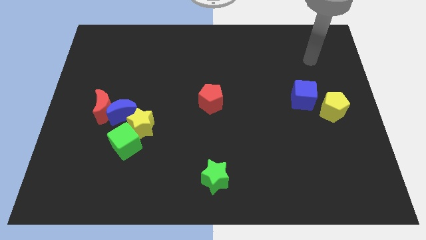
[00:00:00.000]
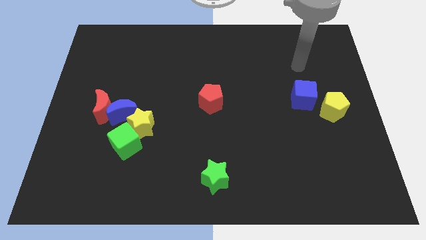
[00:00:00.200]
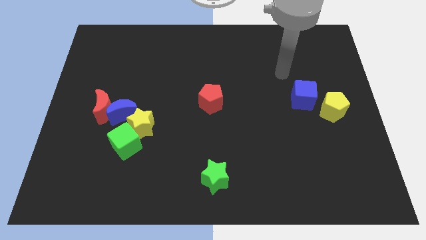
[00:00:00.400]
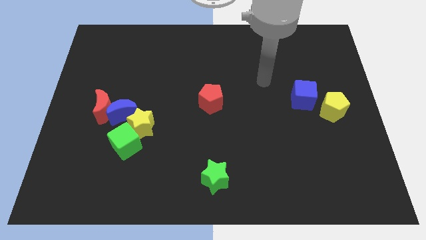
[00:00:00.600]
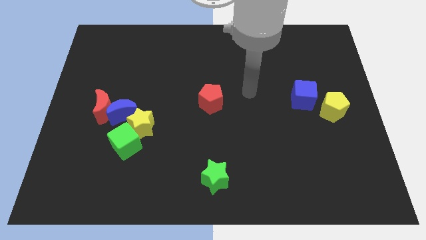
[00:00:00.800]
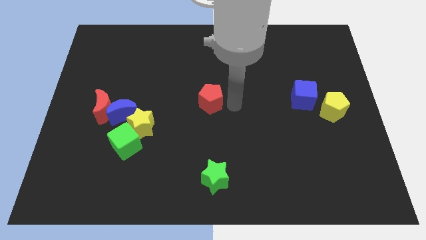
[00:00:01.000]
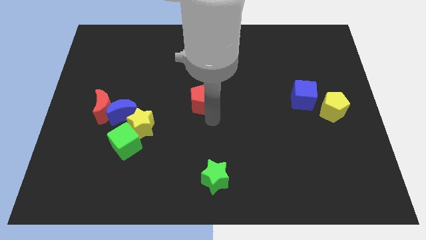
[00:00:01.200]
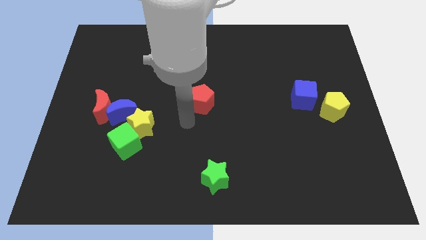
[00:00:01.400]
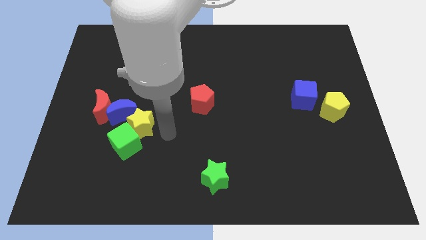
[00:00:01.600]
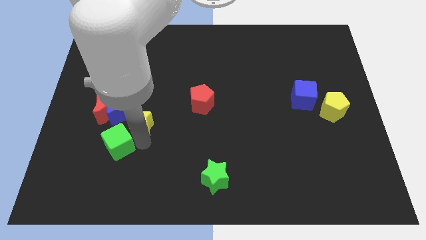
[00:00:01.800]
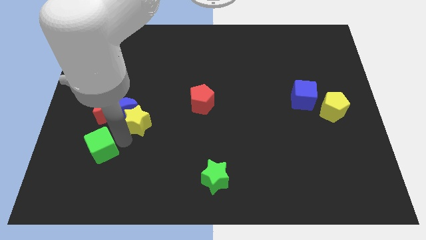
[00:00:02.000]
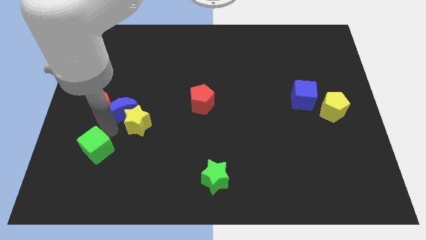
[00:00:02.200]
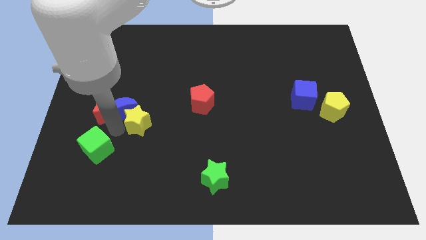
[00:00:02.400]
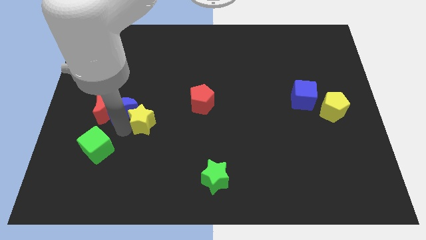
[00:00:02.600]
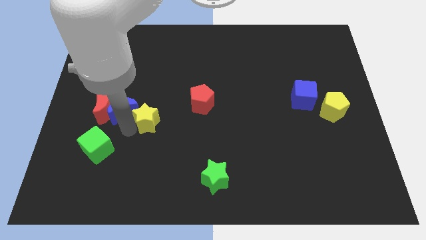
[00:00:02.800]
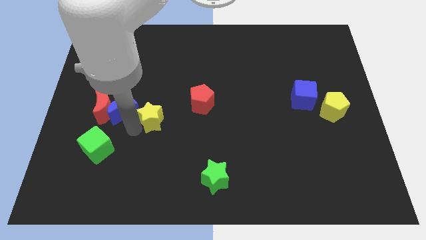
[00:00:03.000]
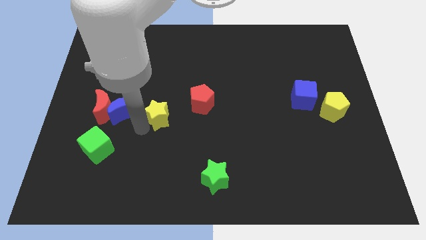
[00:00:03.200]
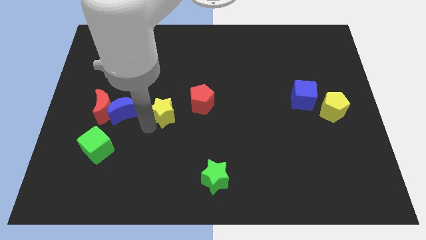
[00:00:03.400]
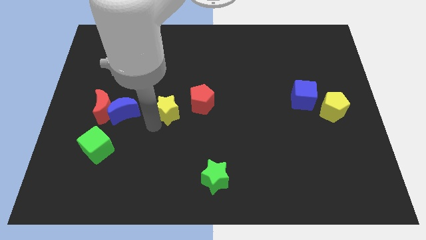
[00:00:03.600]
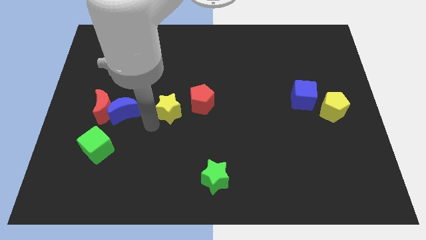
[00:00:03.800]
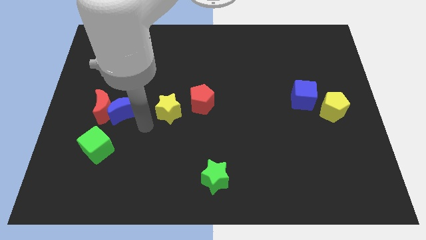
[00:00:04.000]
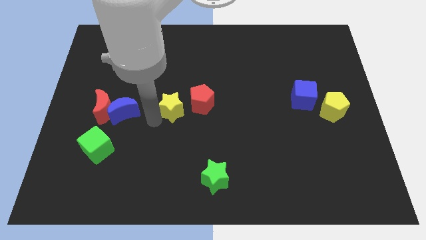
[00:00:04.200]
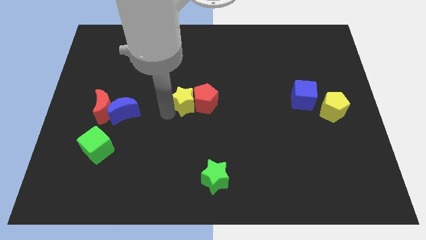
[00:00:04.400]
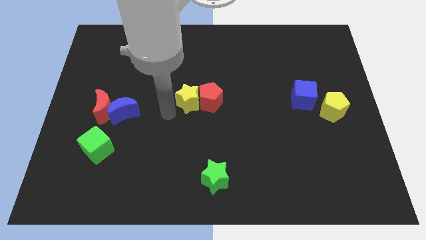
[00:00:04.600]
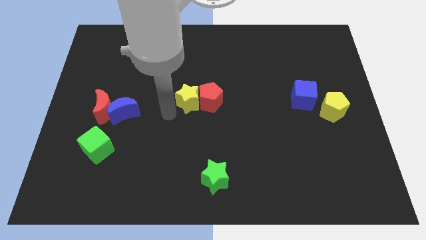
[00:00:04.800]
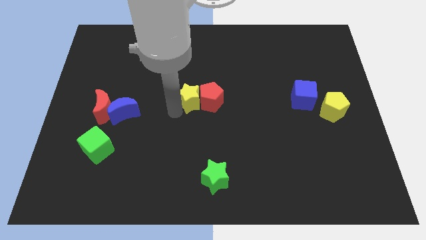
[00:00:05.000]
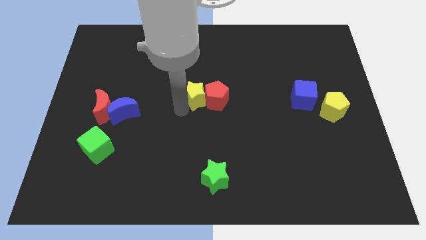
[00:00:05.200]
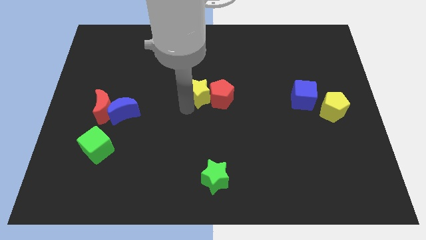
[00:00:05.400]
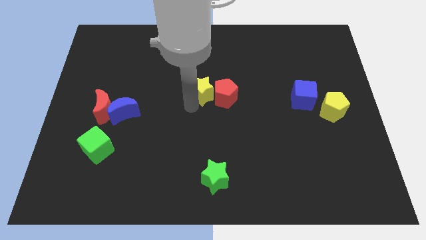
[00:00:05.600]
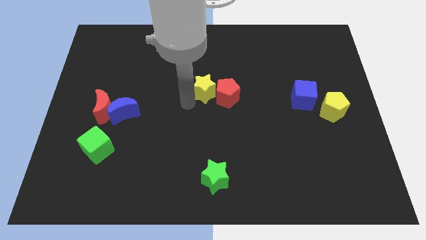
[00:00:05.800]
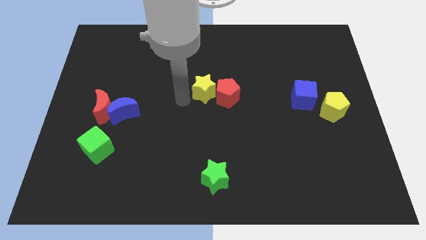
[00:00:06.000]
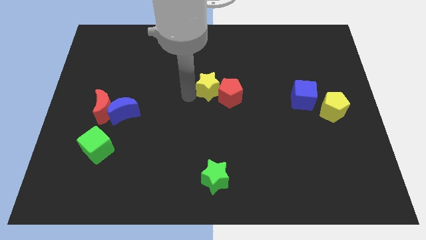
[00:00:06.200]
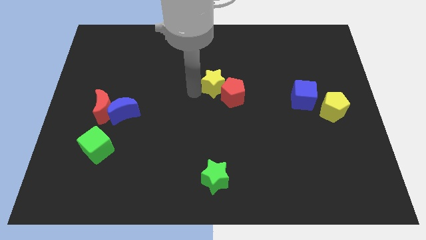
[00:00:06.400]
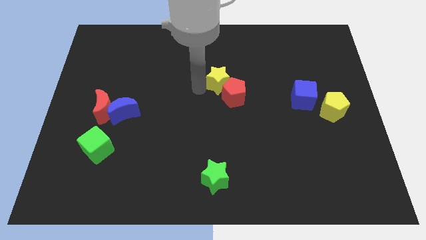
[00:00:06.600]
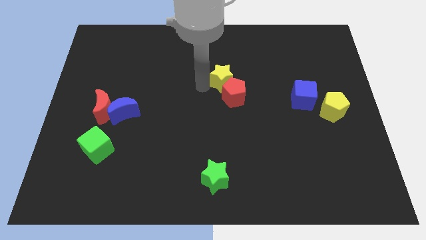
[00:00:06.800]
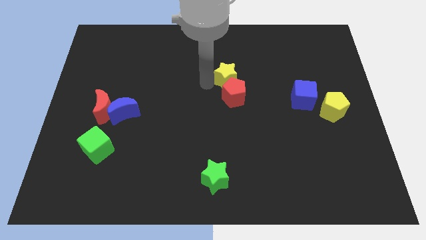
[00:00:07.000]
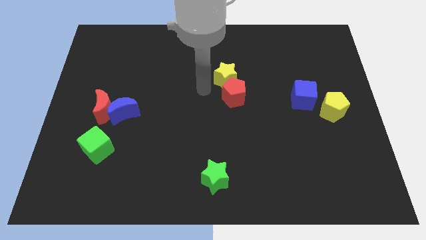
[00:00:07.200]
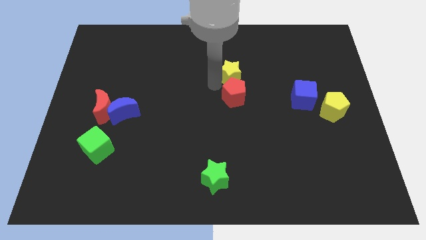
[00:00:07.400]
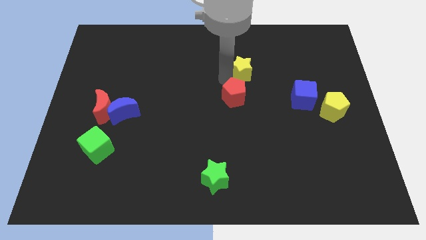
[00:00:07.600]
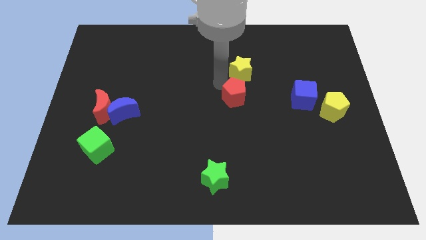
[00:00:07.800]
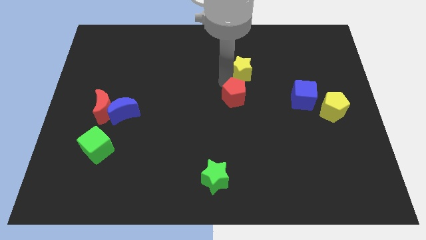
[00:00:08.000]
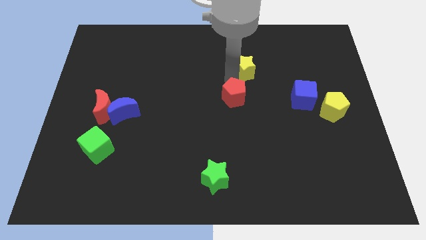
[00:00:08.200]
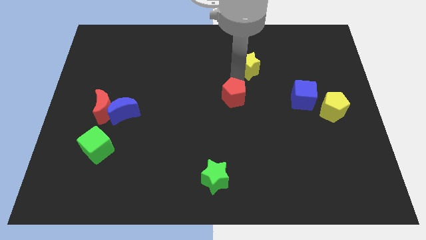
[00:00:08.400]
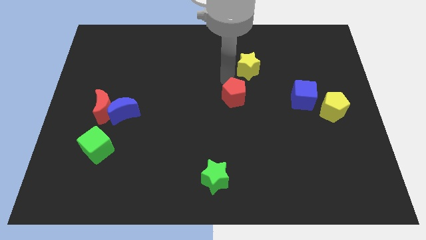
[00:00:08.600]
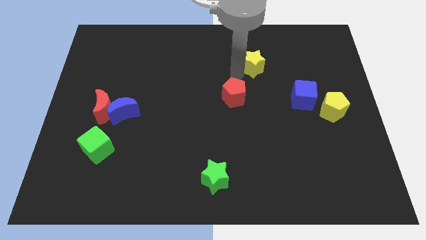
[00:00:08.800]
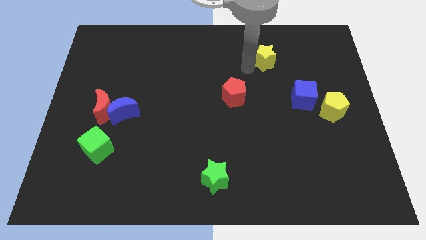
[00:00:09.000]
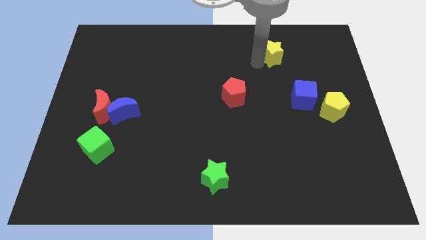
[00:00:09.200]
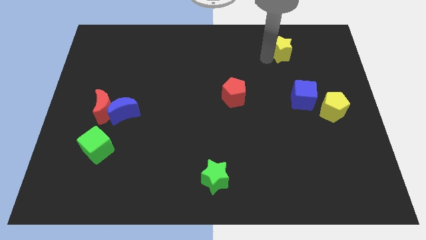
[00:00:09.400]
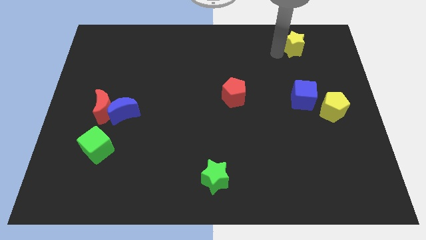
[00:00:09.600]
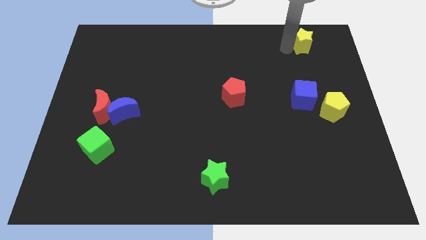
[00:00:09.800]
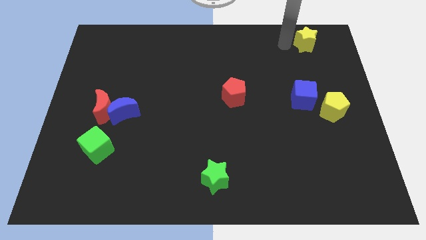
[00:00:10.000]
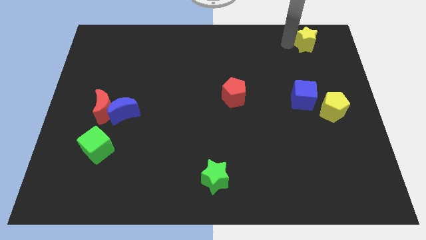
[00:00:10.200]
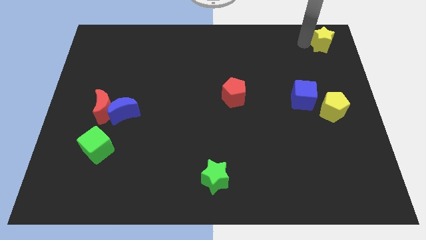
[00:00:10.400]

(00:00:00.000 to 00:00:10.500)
move the yellow star to the top right of the board

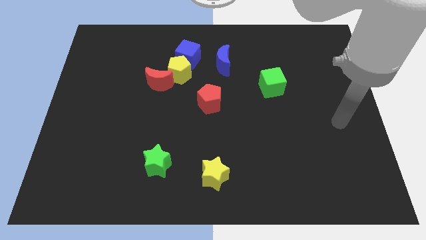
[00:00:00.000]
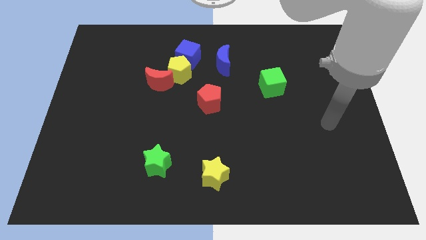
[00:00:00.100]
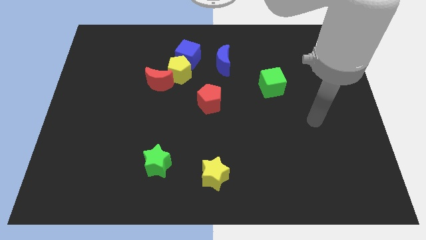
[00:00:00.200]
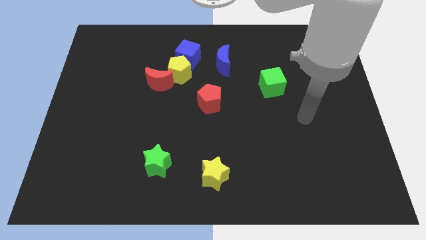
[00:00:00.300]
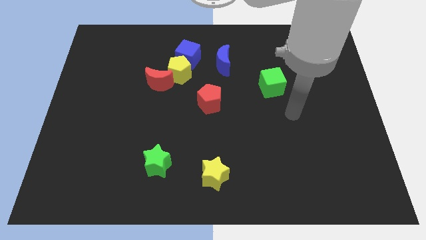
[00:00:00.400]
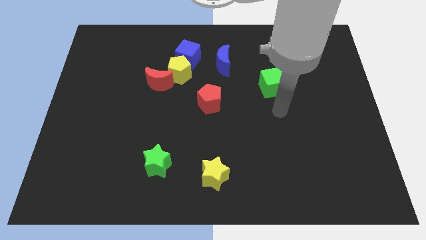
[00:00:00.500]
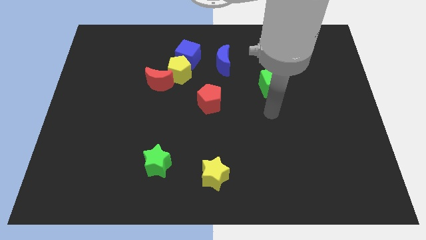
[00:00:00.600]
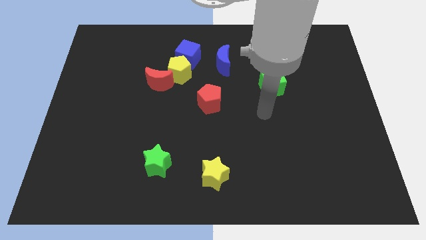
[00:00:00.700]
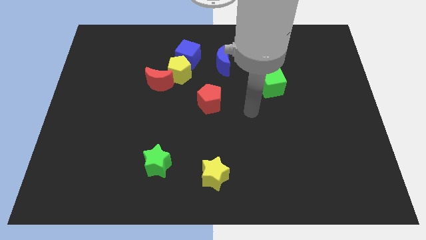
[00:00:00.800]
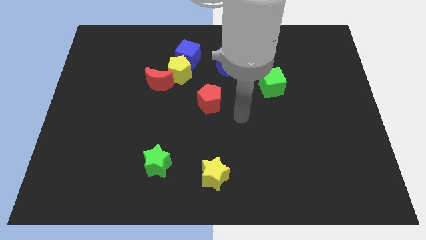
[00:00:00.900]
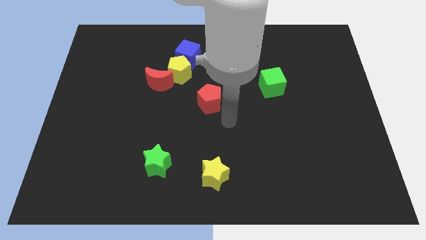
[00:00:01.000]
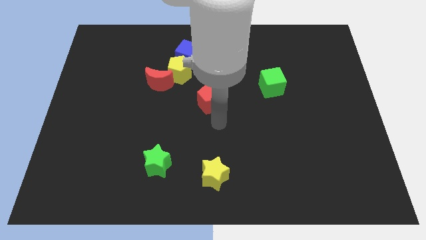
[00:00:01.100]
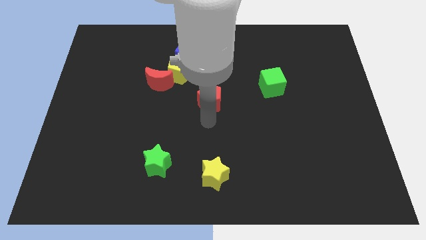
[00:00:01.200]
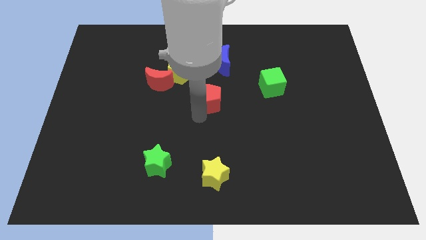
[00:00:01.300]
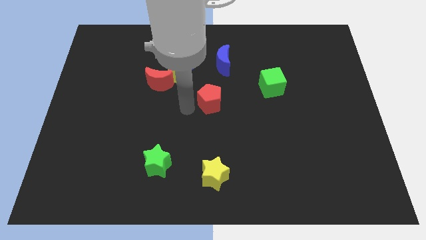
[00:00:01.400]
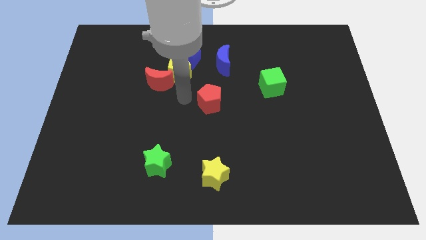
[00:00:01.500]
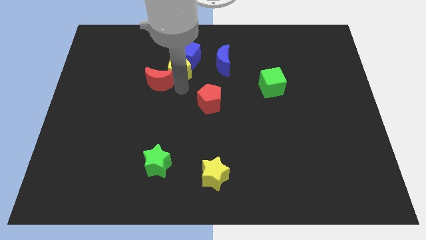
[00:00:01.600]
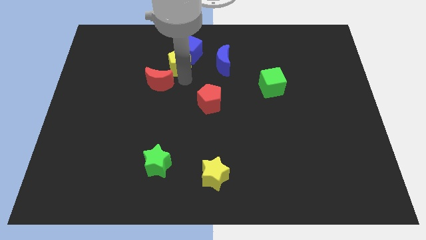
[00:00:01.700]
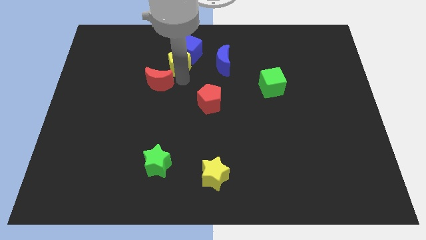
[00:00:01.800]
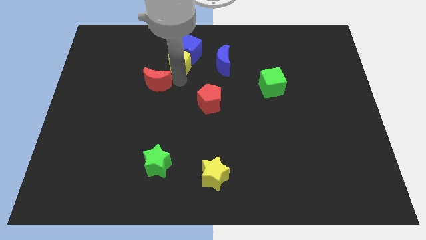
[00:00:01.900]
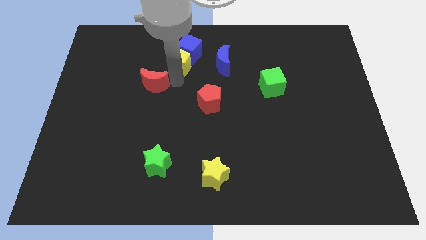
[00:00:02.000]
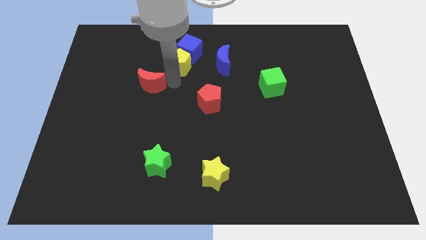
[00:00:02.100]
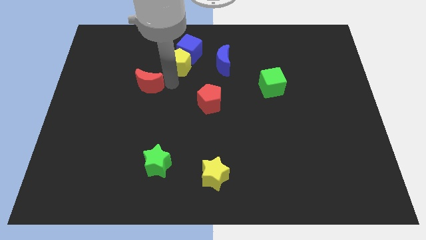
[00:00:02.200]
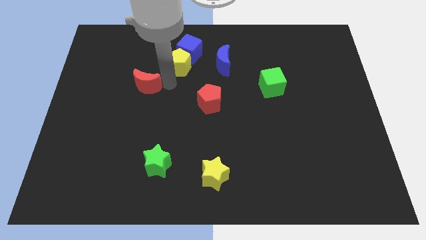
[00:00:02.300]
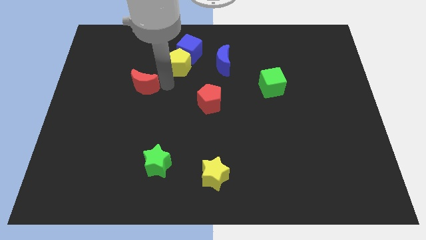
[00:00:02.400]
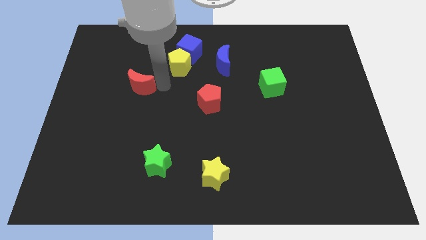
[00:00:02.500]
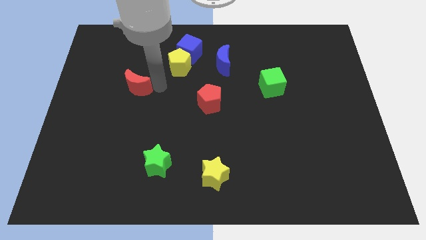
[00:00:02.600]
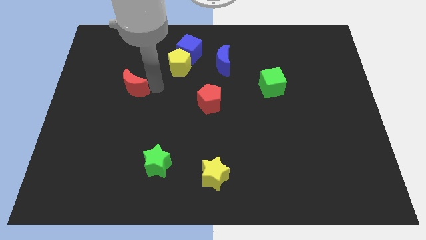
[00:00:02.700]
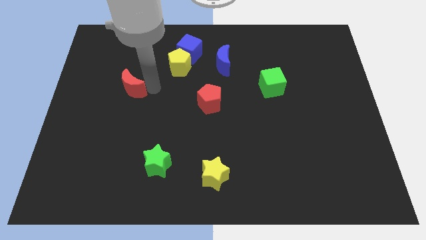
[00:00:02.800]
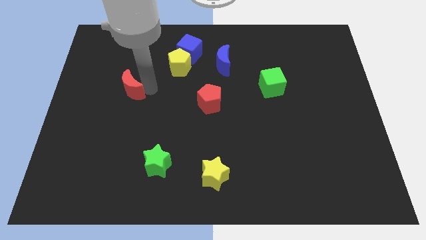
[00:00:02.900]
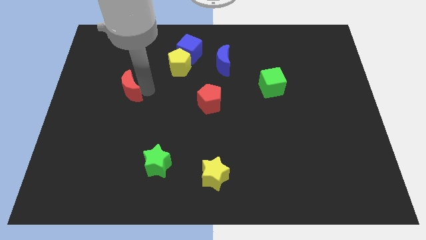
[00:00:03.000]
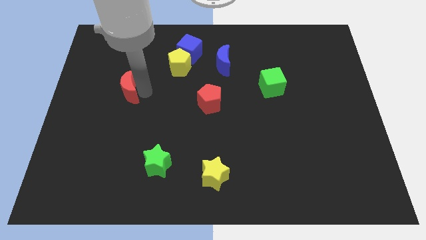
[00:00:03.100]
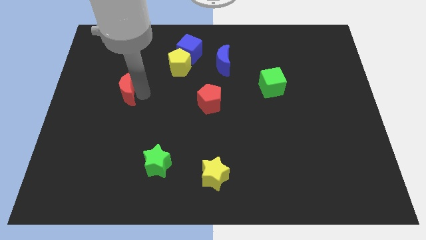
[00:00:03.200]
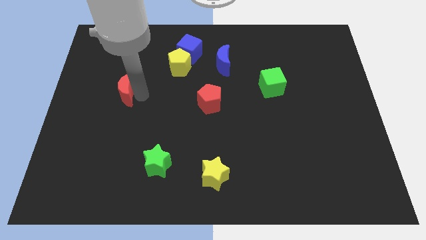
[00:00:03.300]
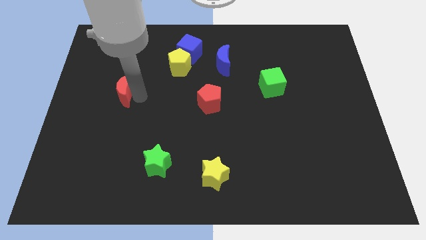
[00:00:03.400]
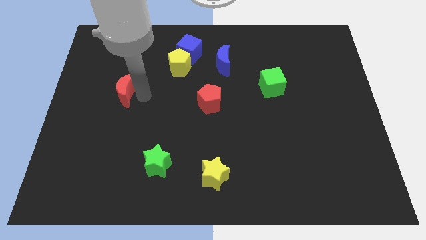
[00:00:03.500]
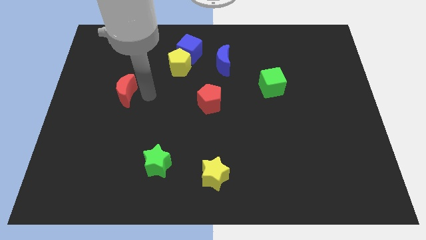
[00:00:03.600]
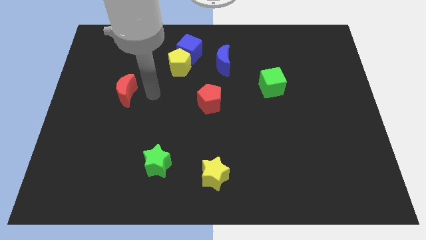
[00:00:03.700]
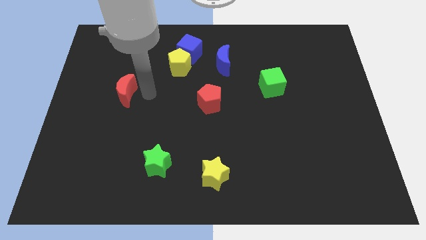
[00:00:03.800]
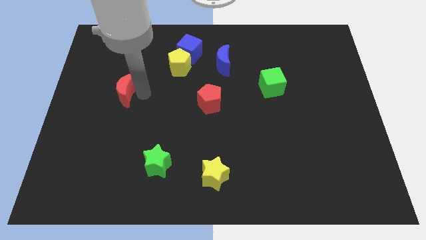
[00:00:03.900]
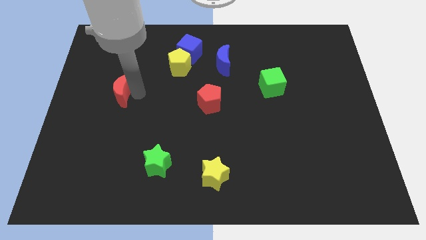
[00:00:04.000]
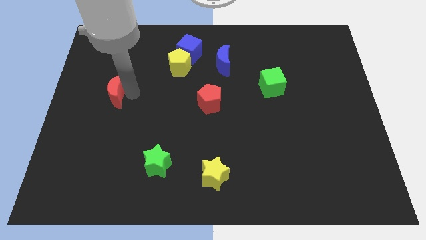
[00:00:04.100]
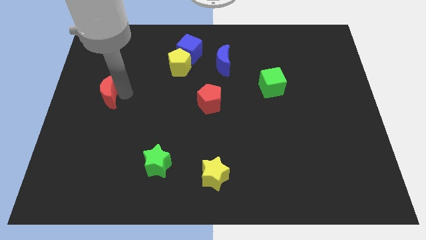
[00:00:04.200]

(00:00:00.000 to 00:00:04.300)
move the red moon to the left side
